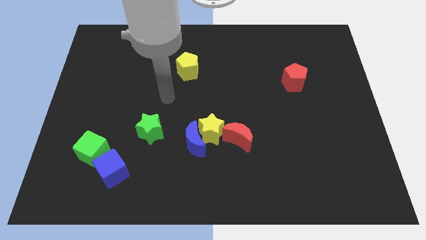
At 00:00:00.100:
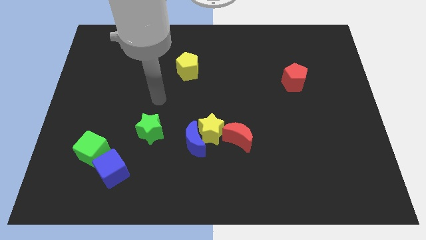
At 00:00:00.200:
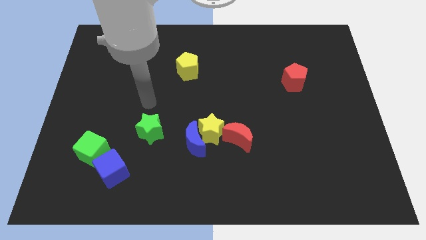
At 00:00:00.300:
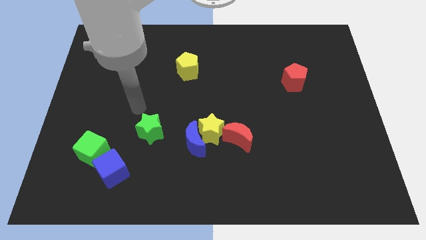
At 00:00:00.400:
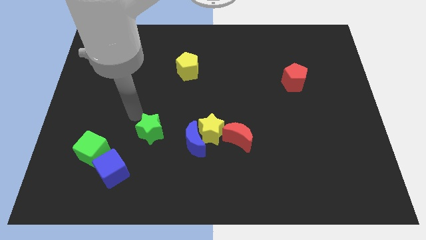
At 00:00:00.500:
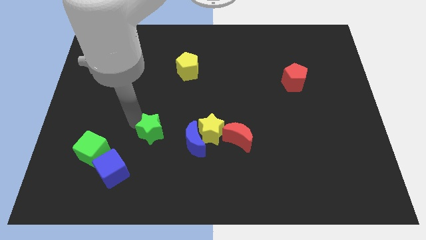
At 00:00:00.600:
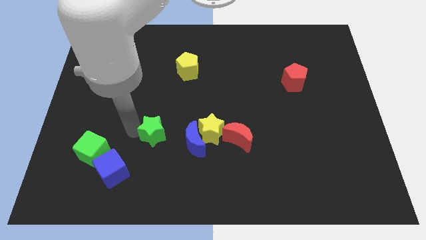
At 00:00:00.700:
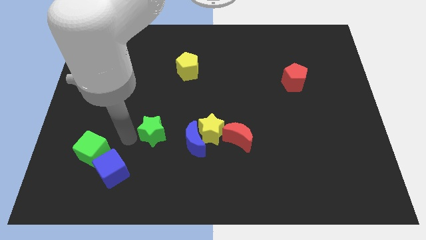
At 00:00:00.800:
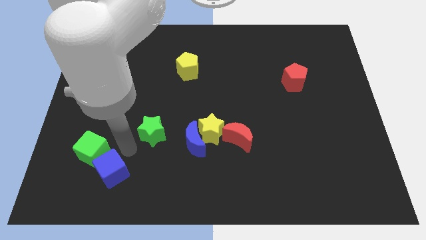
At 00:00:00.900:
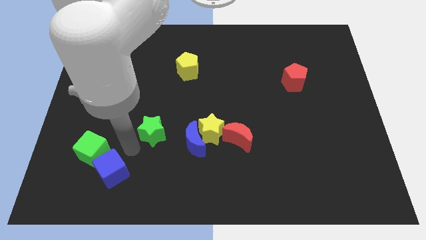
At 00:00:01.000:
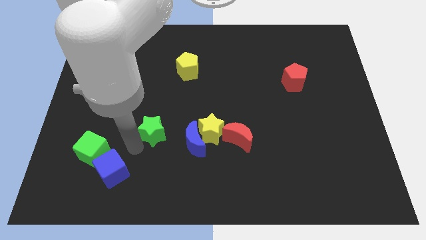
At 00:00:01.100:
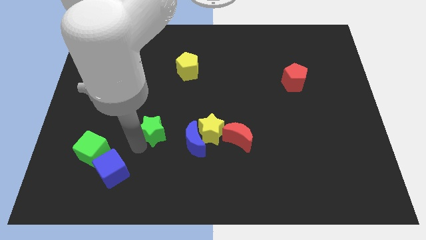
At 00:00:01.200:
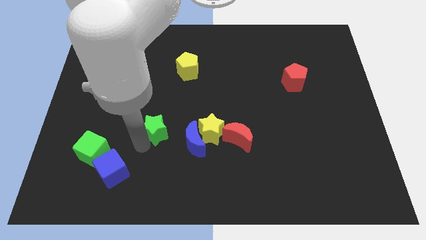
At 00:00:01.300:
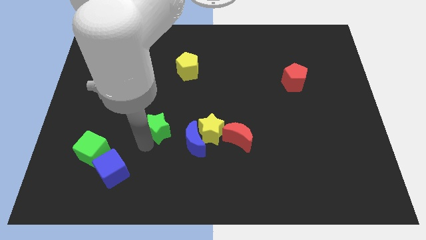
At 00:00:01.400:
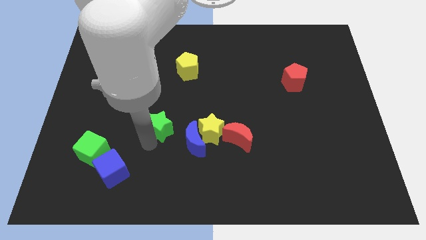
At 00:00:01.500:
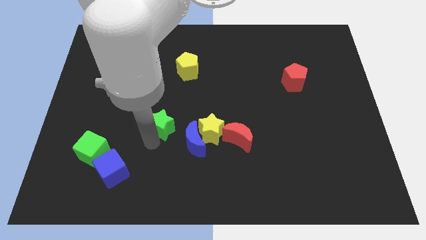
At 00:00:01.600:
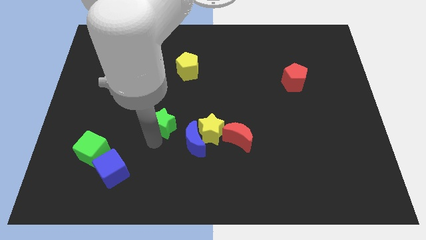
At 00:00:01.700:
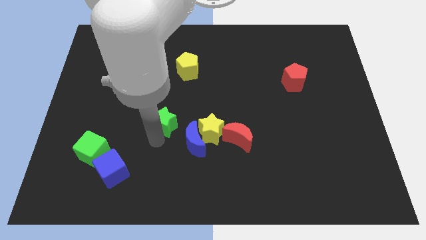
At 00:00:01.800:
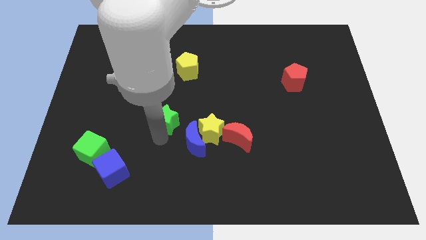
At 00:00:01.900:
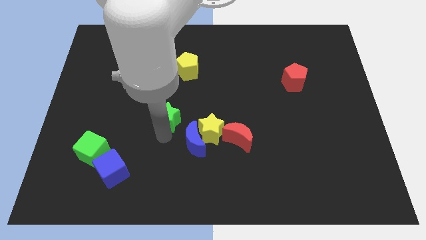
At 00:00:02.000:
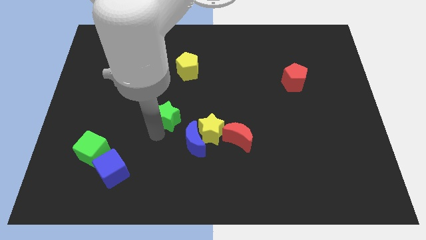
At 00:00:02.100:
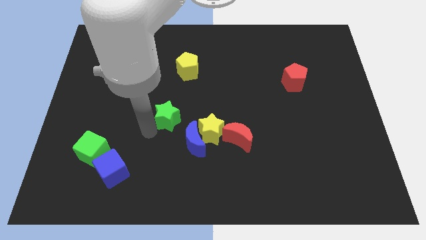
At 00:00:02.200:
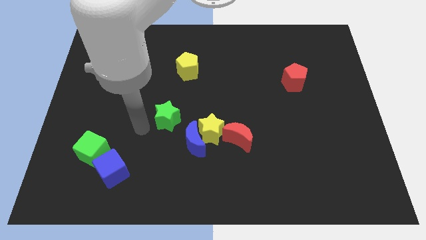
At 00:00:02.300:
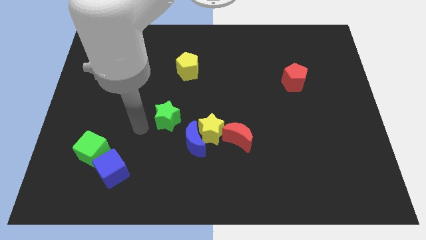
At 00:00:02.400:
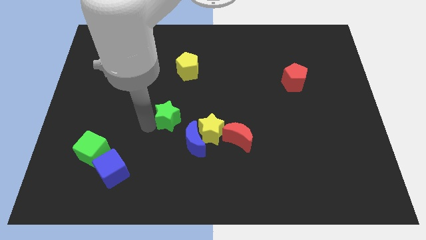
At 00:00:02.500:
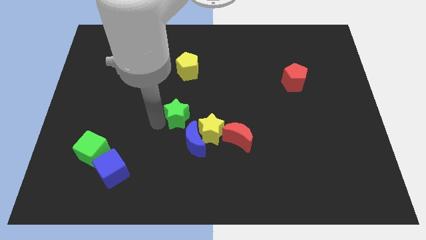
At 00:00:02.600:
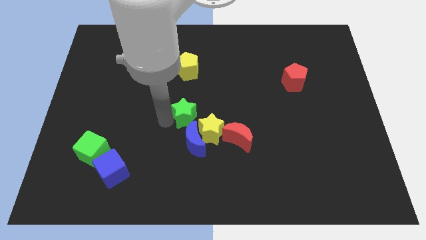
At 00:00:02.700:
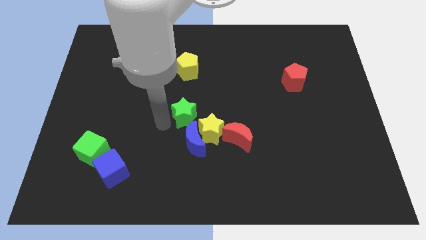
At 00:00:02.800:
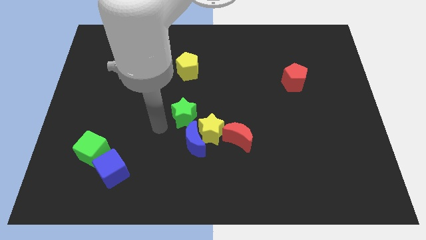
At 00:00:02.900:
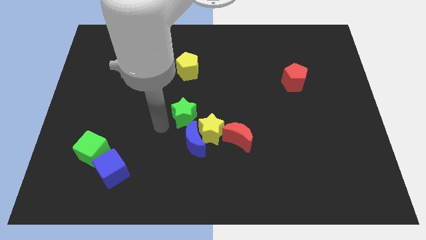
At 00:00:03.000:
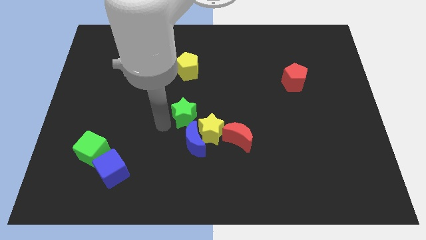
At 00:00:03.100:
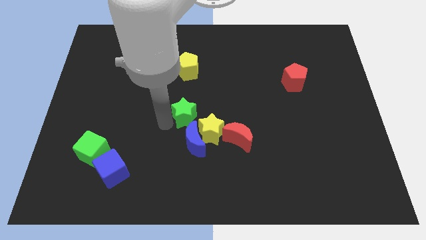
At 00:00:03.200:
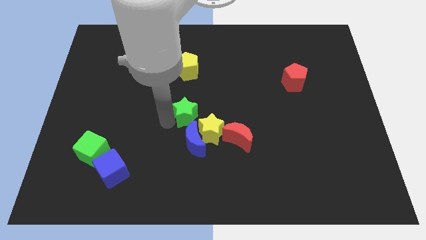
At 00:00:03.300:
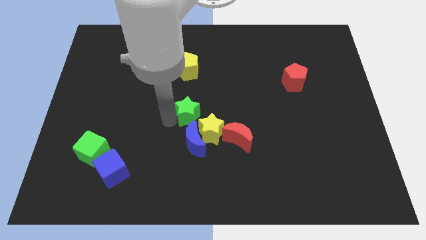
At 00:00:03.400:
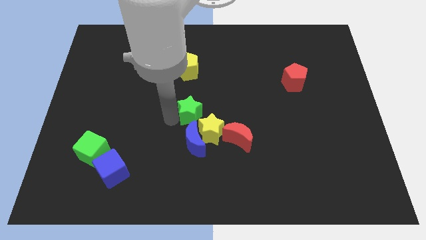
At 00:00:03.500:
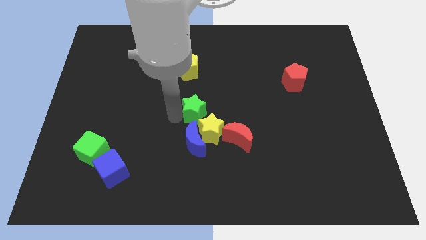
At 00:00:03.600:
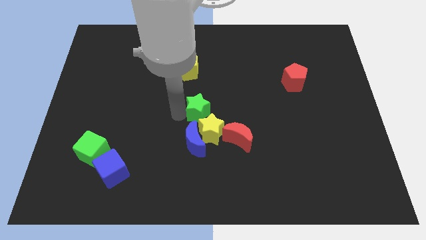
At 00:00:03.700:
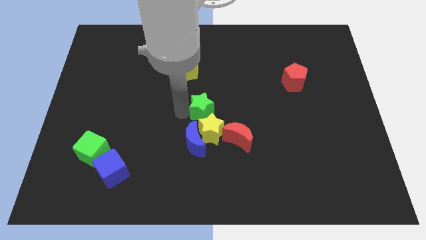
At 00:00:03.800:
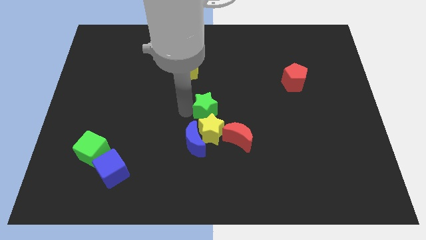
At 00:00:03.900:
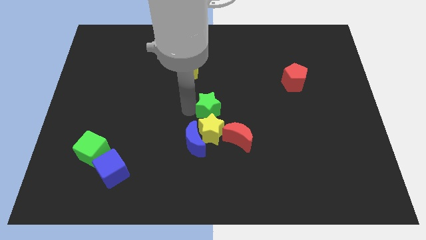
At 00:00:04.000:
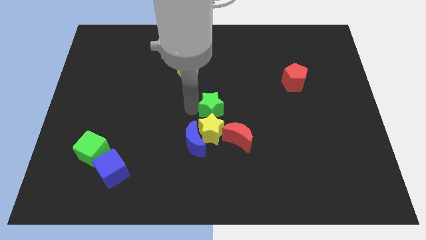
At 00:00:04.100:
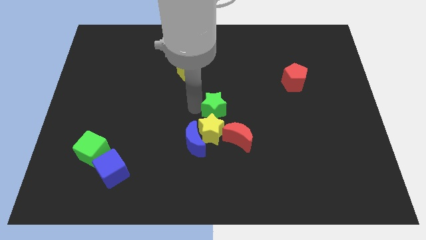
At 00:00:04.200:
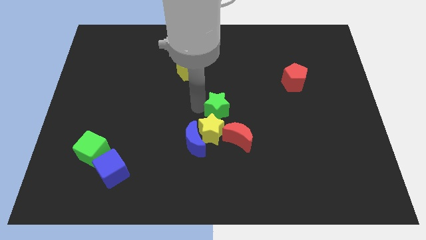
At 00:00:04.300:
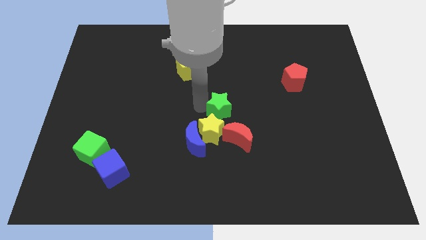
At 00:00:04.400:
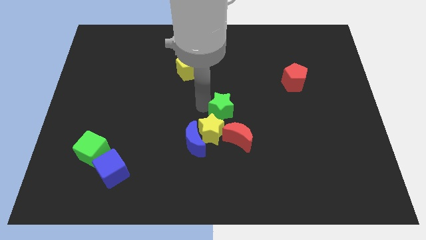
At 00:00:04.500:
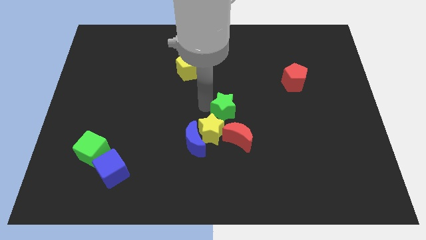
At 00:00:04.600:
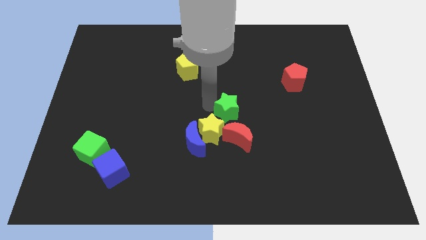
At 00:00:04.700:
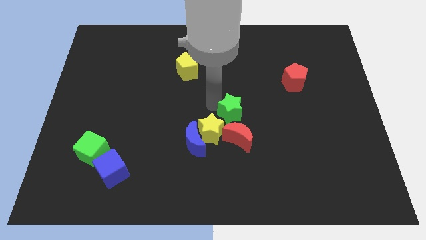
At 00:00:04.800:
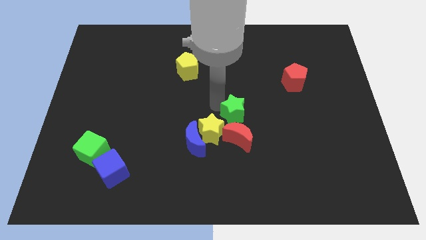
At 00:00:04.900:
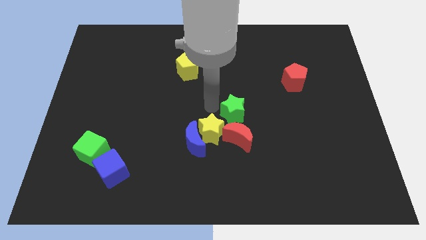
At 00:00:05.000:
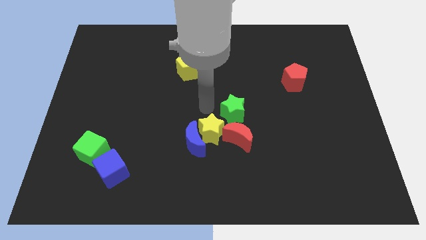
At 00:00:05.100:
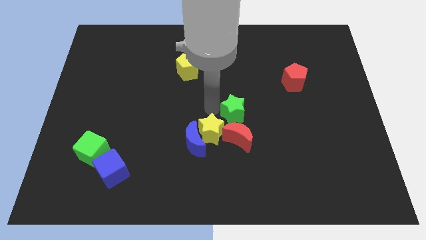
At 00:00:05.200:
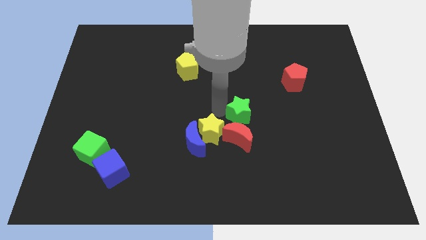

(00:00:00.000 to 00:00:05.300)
slide the green star to the top right side of the red moon

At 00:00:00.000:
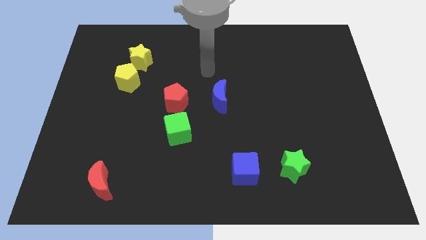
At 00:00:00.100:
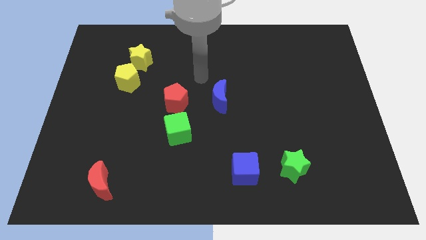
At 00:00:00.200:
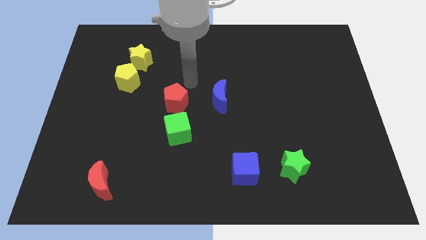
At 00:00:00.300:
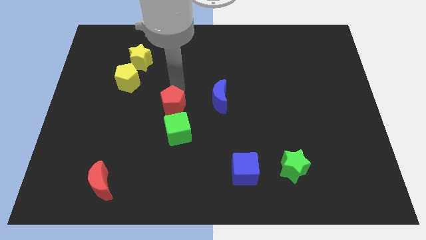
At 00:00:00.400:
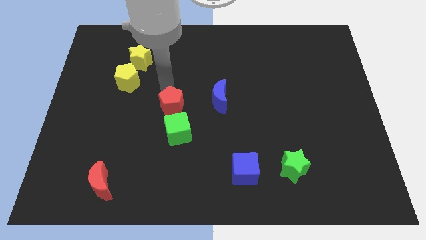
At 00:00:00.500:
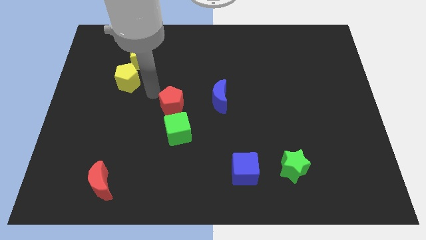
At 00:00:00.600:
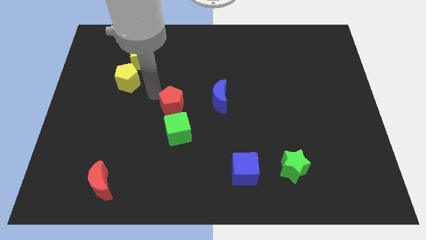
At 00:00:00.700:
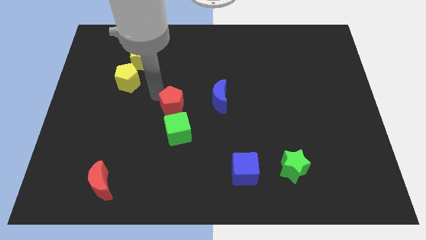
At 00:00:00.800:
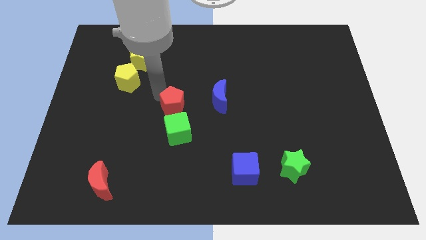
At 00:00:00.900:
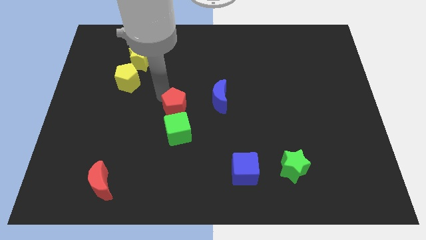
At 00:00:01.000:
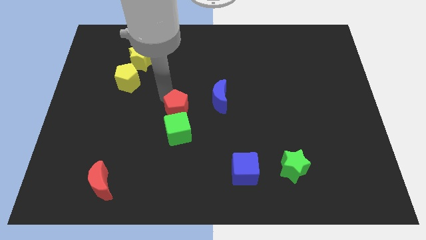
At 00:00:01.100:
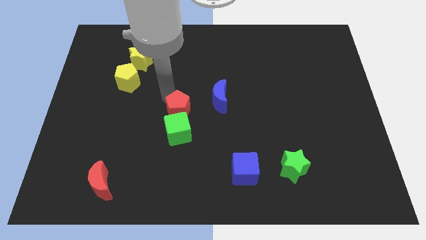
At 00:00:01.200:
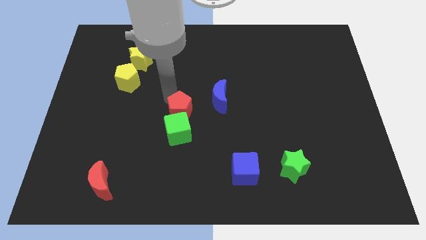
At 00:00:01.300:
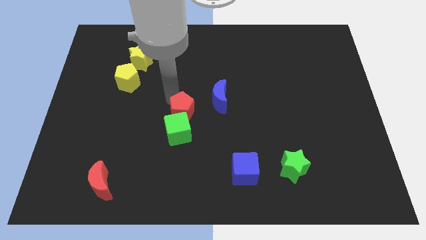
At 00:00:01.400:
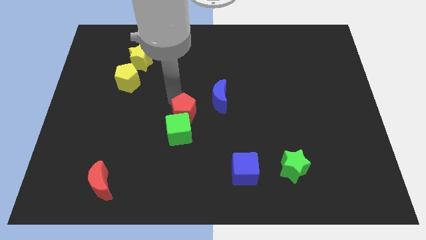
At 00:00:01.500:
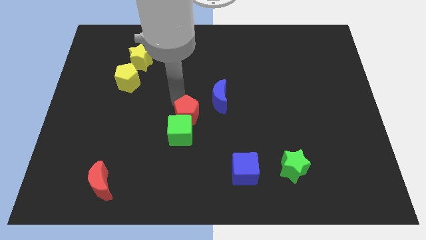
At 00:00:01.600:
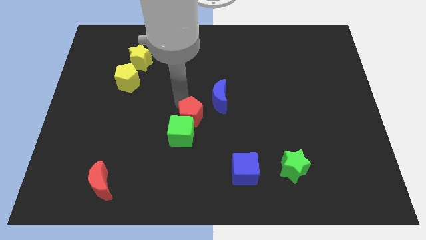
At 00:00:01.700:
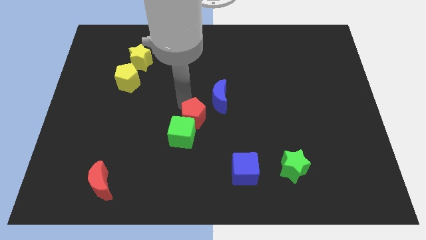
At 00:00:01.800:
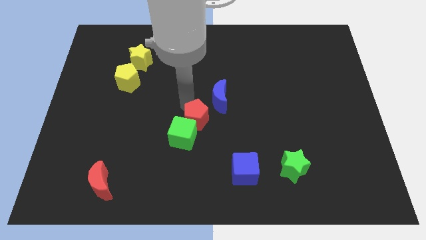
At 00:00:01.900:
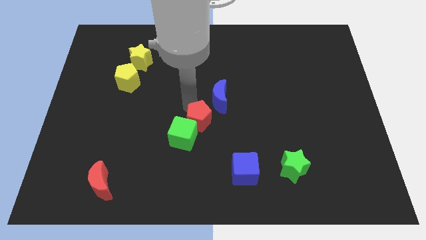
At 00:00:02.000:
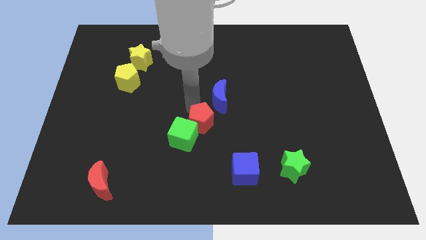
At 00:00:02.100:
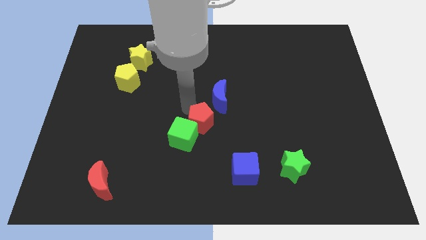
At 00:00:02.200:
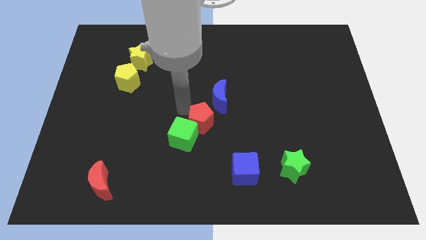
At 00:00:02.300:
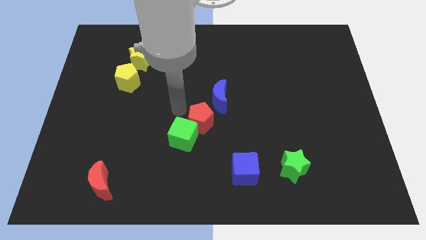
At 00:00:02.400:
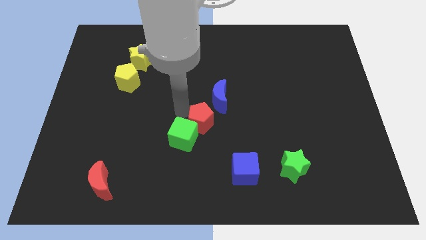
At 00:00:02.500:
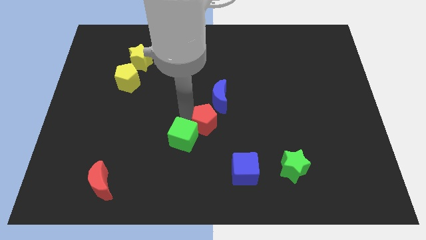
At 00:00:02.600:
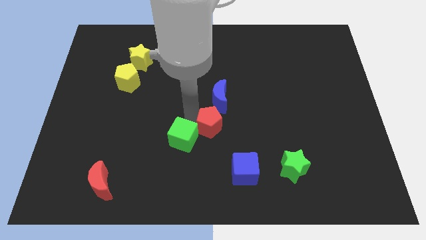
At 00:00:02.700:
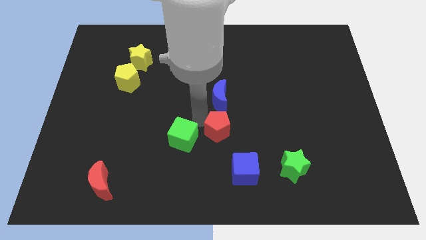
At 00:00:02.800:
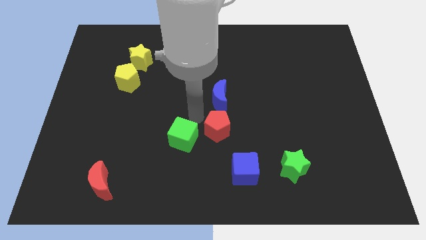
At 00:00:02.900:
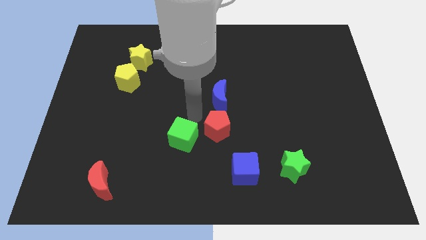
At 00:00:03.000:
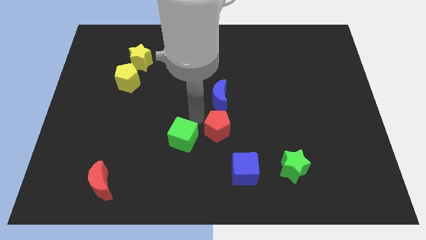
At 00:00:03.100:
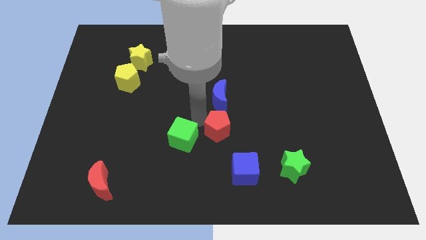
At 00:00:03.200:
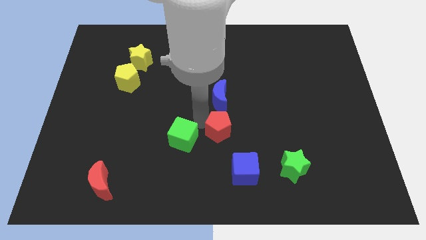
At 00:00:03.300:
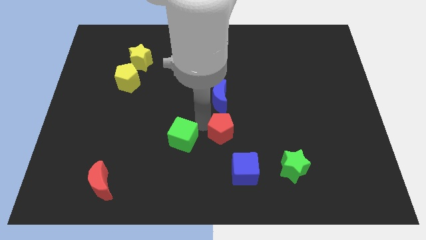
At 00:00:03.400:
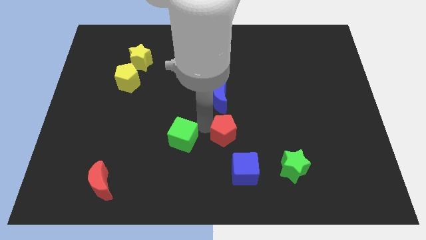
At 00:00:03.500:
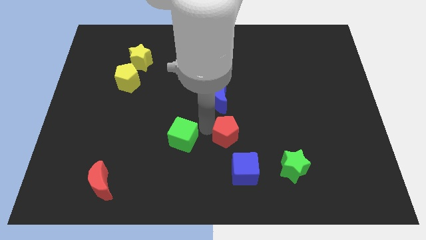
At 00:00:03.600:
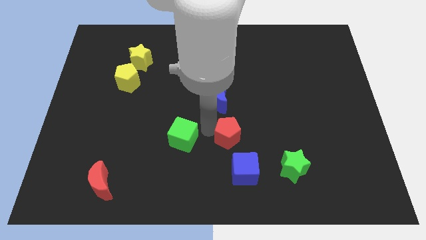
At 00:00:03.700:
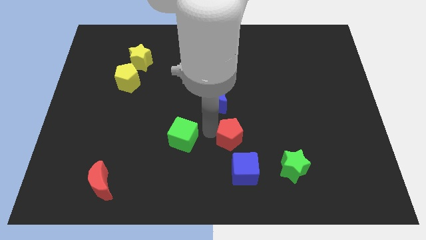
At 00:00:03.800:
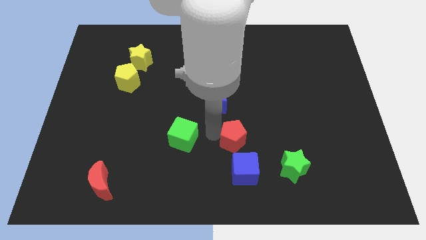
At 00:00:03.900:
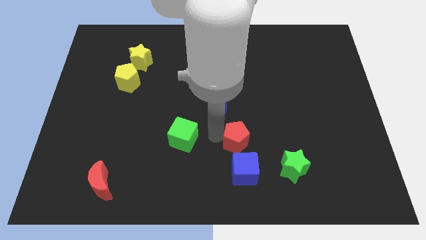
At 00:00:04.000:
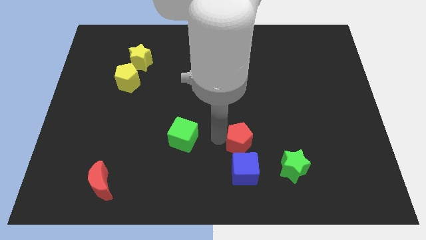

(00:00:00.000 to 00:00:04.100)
slide the red pentagon diagonally up and to the left of the green star
